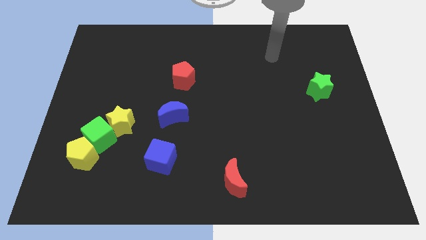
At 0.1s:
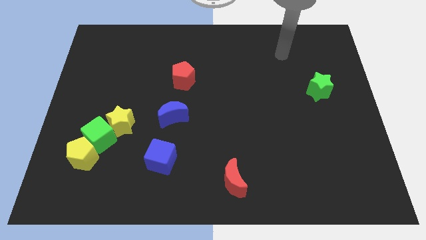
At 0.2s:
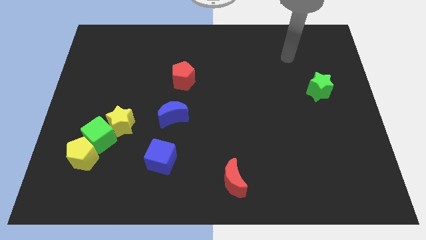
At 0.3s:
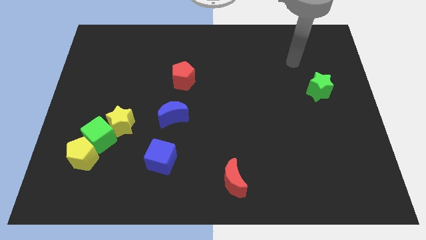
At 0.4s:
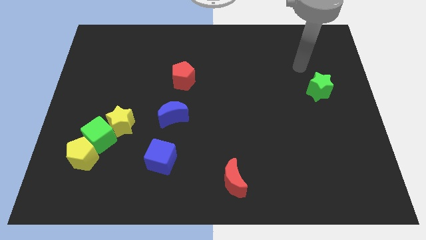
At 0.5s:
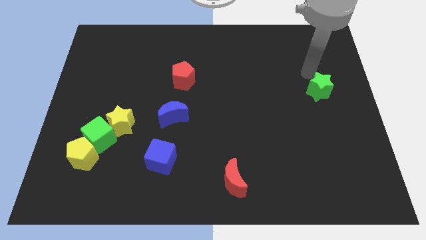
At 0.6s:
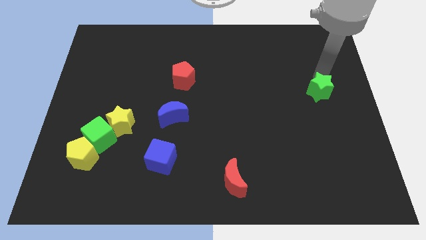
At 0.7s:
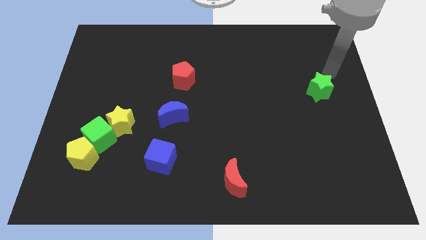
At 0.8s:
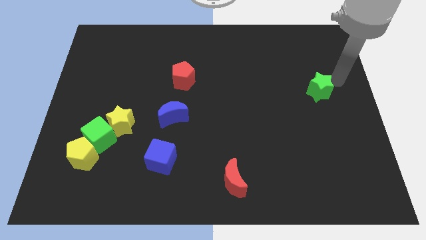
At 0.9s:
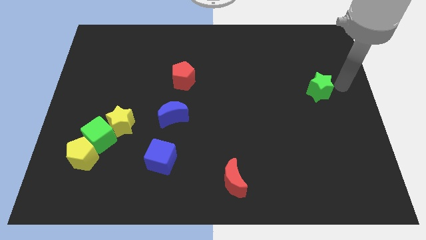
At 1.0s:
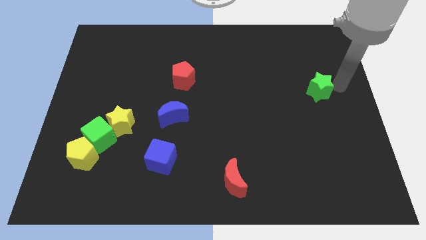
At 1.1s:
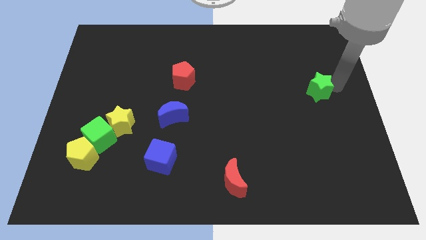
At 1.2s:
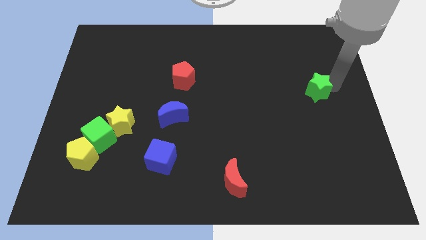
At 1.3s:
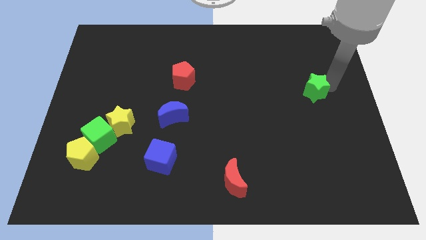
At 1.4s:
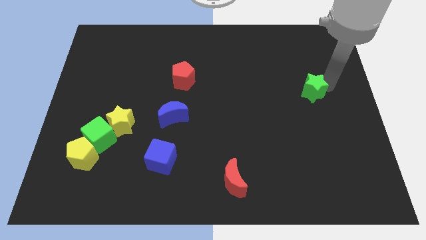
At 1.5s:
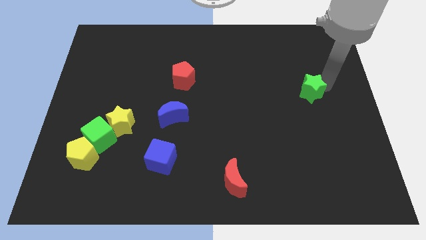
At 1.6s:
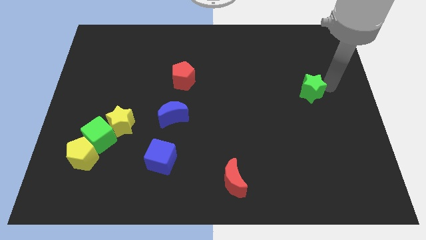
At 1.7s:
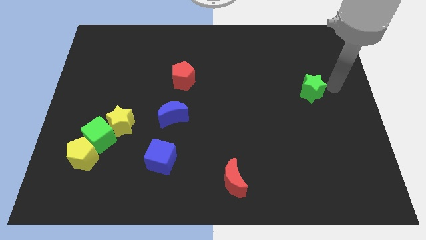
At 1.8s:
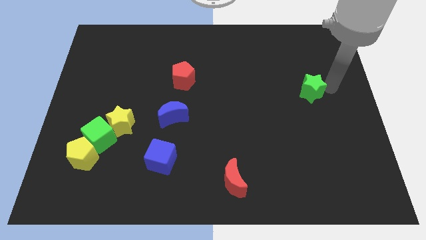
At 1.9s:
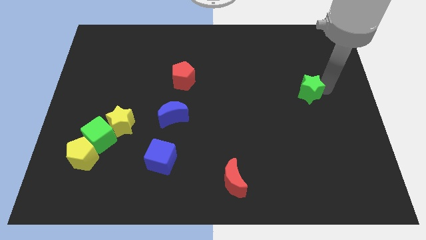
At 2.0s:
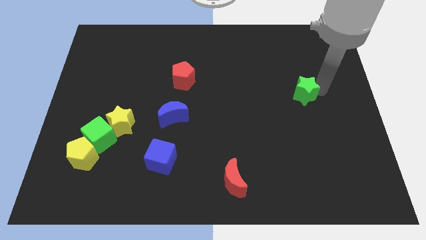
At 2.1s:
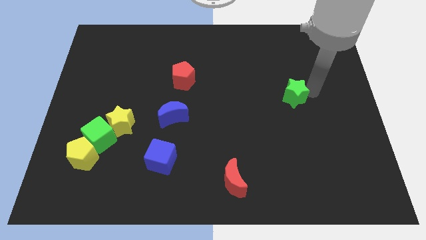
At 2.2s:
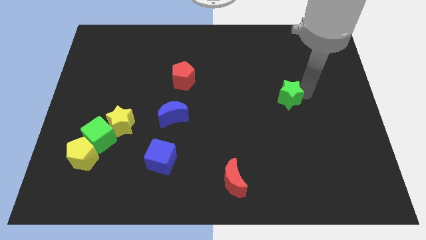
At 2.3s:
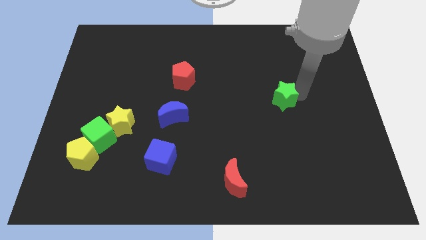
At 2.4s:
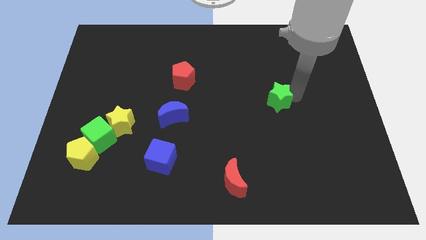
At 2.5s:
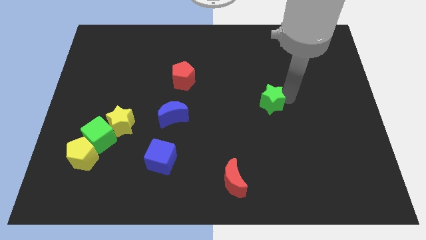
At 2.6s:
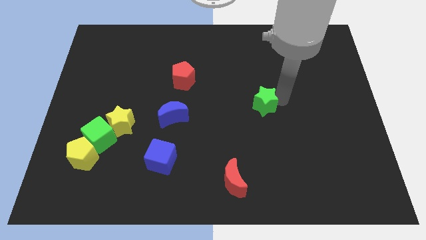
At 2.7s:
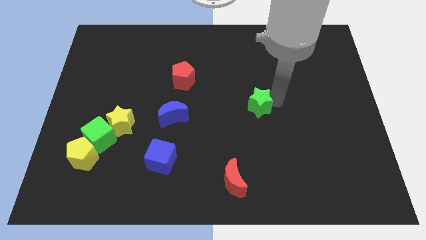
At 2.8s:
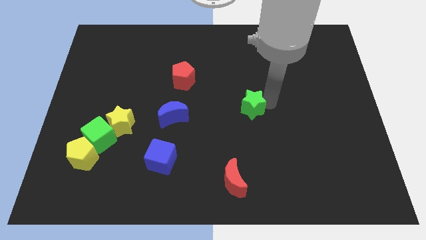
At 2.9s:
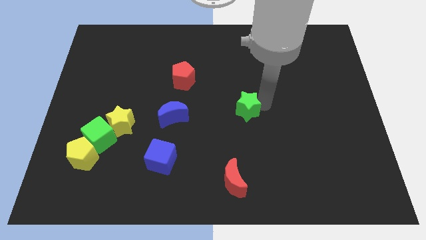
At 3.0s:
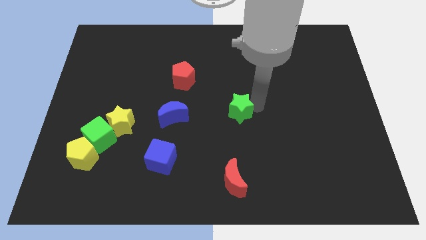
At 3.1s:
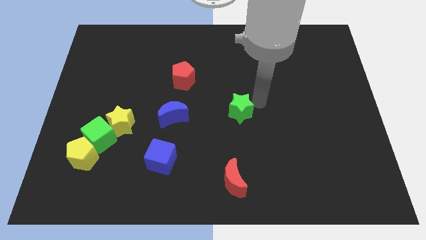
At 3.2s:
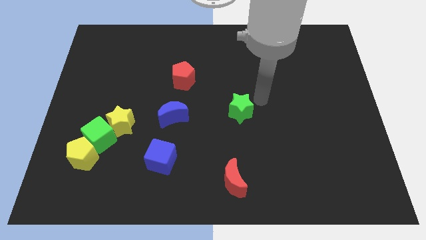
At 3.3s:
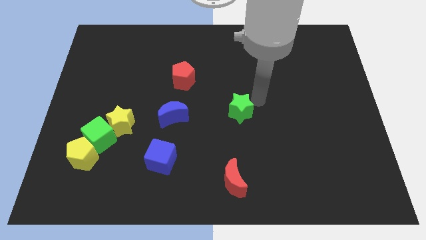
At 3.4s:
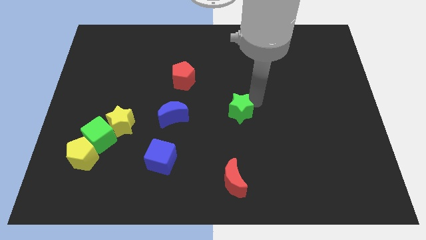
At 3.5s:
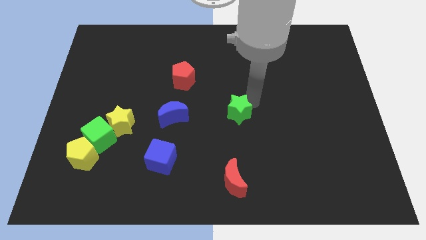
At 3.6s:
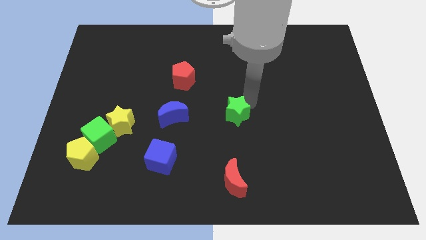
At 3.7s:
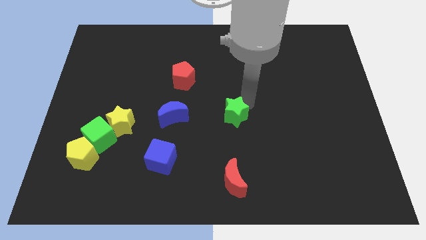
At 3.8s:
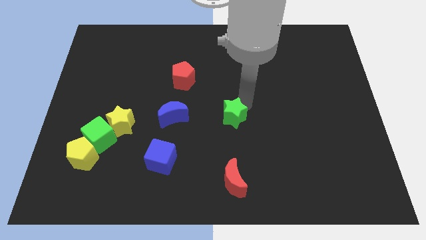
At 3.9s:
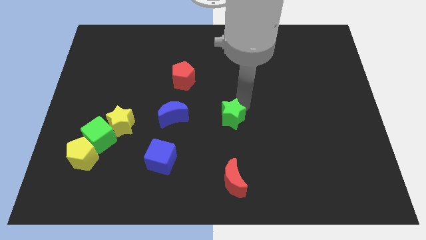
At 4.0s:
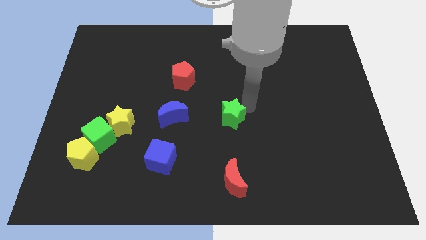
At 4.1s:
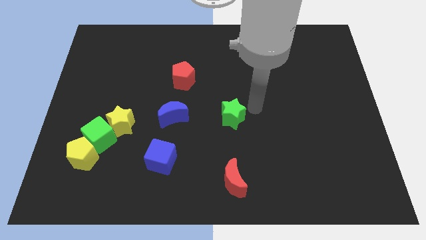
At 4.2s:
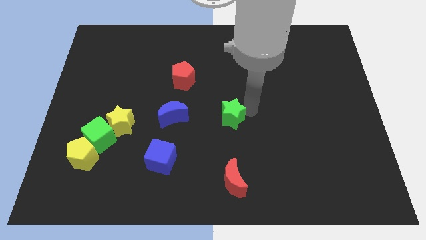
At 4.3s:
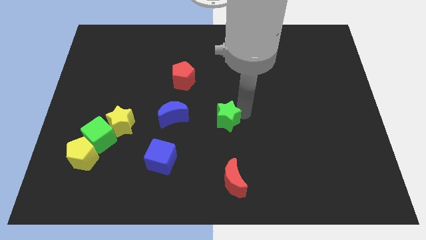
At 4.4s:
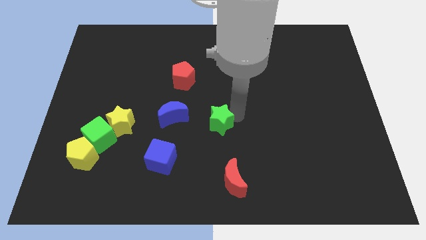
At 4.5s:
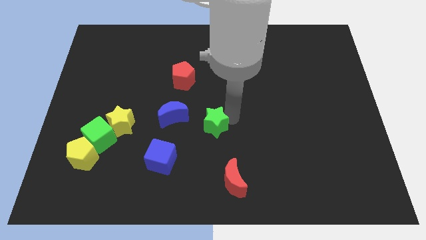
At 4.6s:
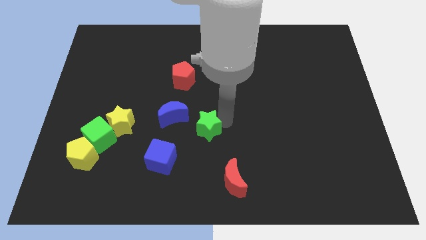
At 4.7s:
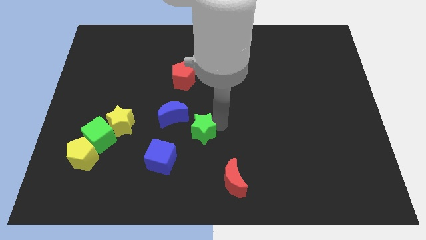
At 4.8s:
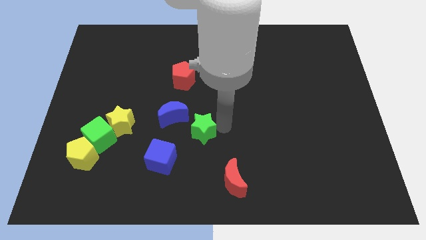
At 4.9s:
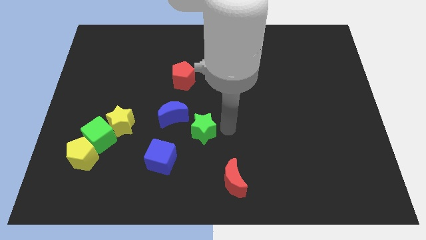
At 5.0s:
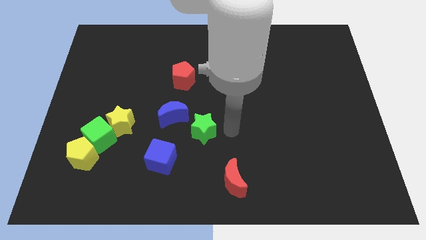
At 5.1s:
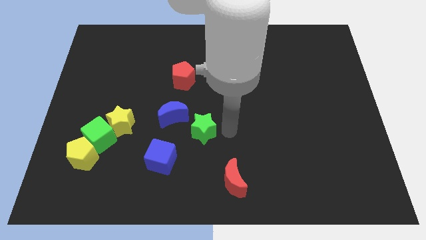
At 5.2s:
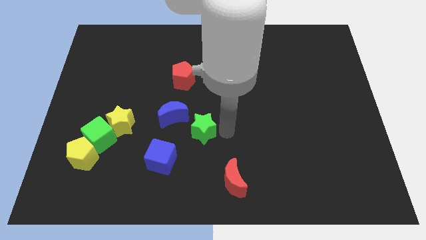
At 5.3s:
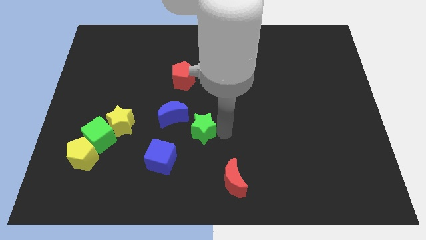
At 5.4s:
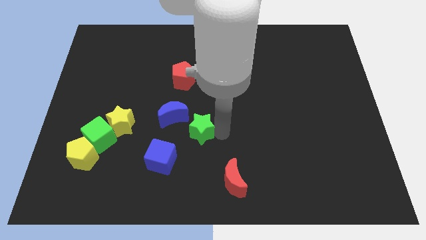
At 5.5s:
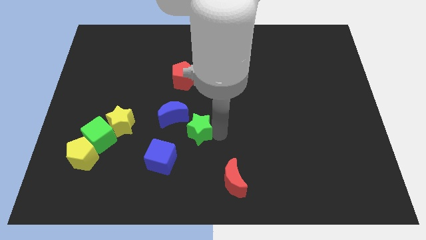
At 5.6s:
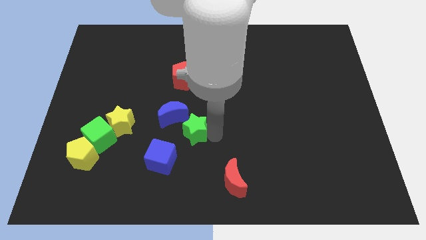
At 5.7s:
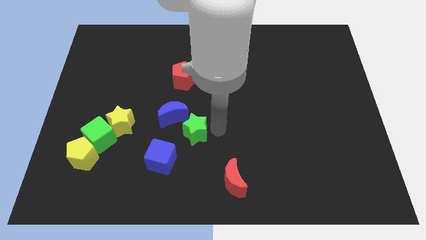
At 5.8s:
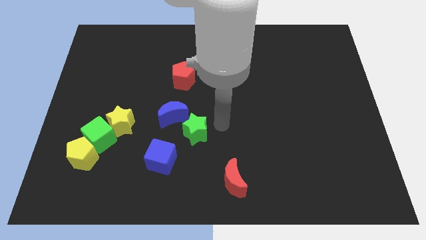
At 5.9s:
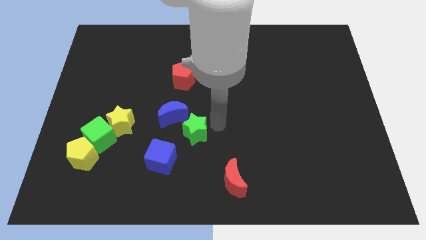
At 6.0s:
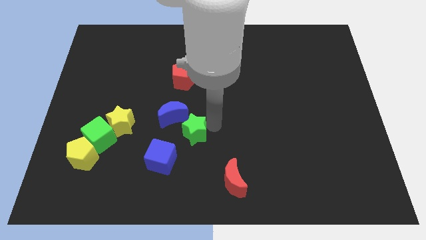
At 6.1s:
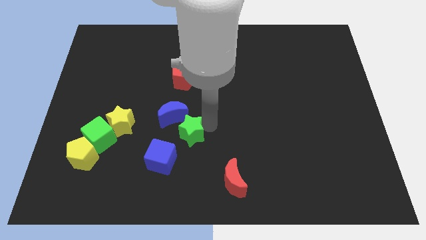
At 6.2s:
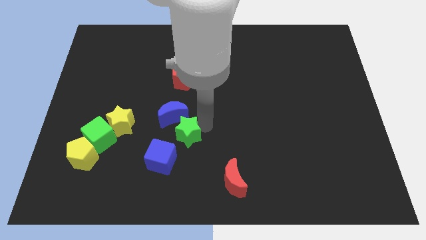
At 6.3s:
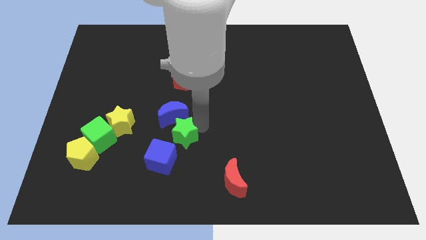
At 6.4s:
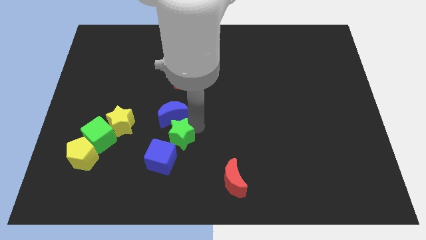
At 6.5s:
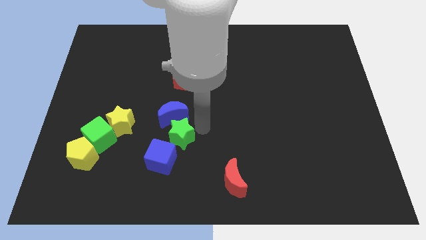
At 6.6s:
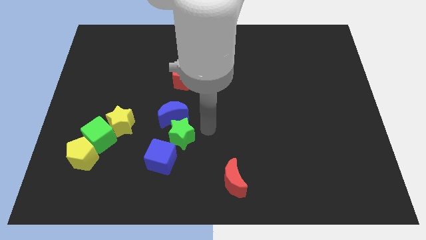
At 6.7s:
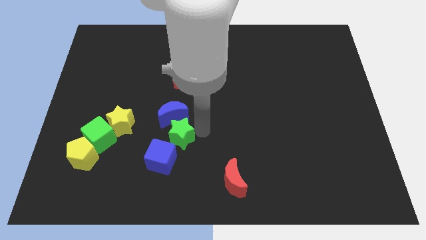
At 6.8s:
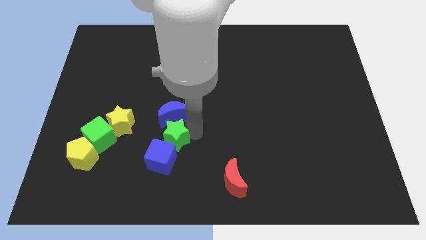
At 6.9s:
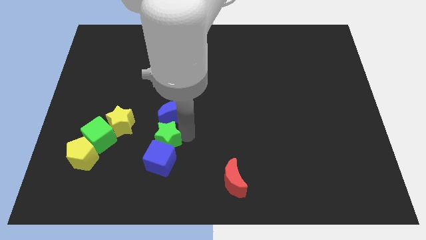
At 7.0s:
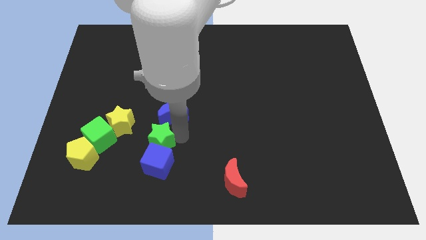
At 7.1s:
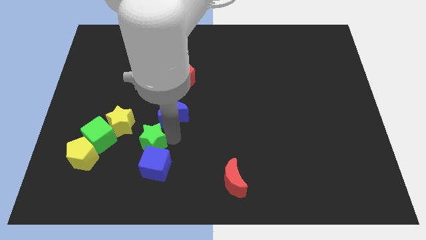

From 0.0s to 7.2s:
put the green star to the right side of the yellow pentagon

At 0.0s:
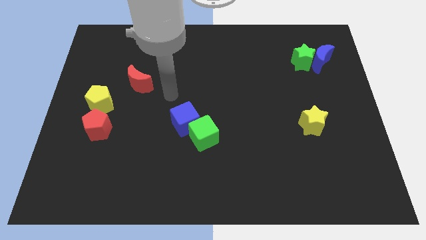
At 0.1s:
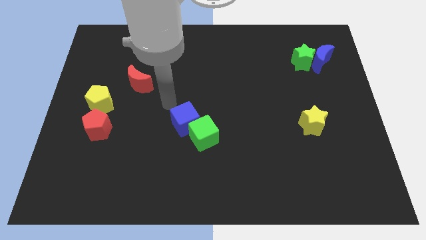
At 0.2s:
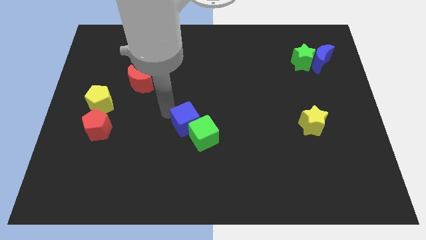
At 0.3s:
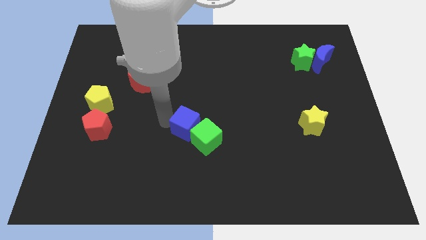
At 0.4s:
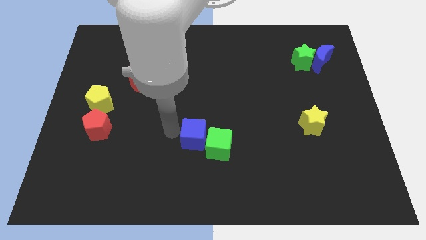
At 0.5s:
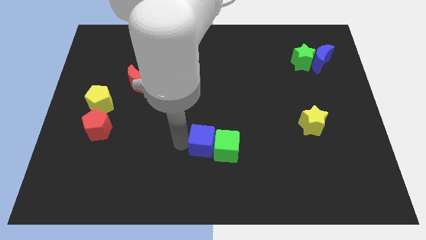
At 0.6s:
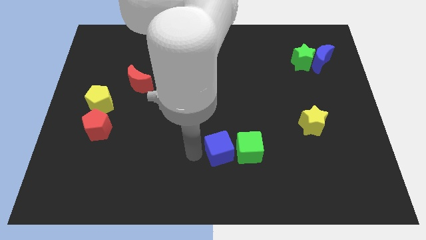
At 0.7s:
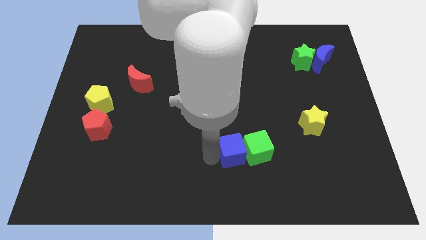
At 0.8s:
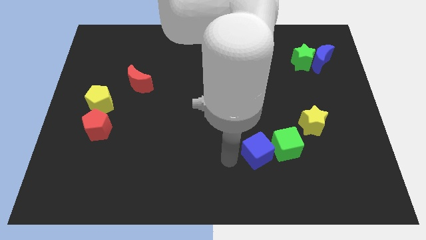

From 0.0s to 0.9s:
slide the green cube to the bottom left side of the yellow star
